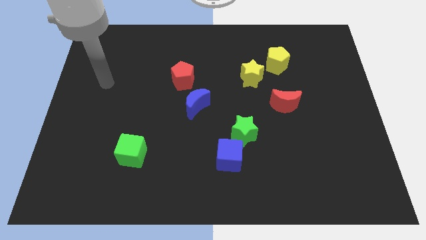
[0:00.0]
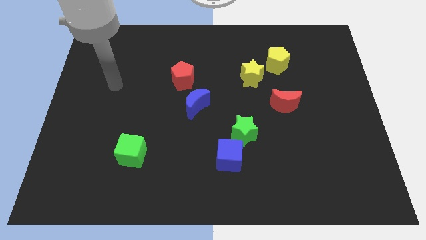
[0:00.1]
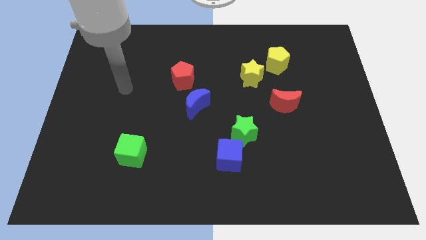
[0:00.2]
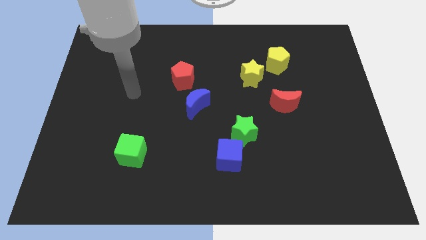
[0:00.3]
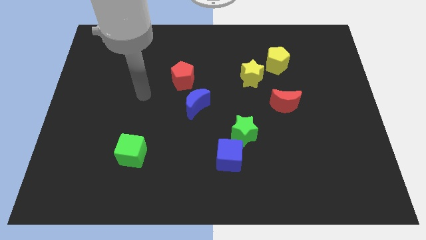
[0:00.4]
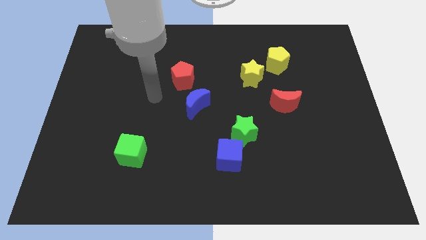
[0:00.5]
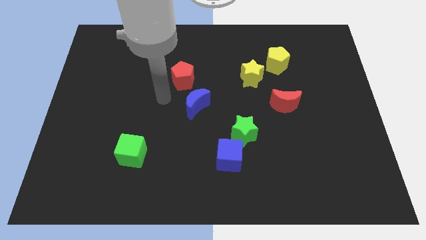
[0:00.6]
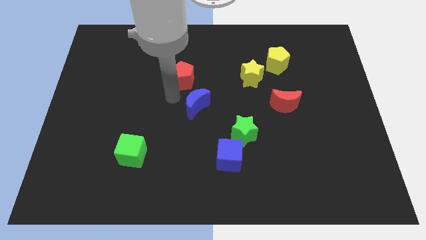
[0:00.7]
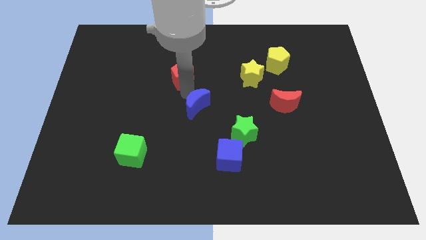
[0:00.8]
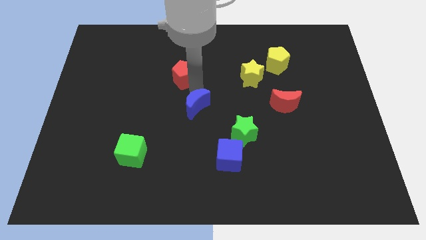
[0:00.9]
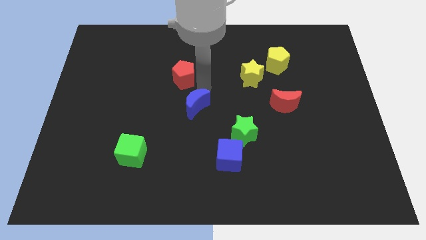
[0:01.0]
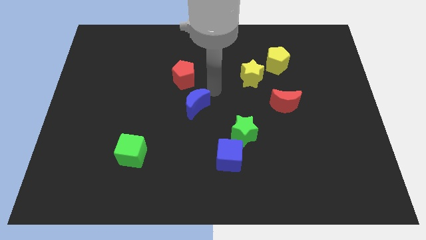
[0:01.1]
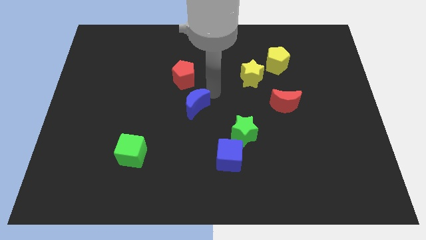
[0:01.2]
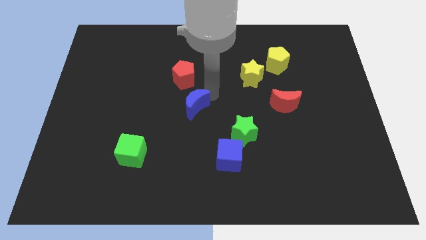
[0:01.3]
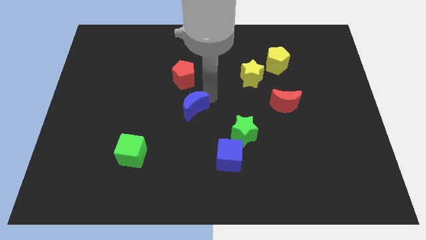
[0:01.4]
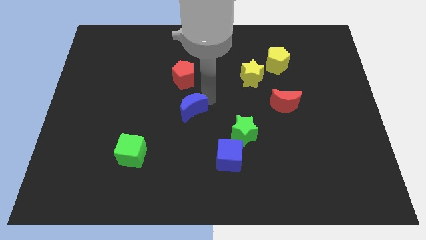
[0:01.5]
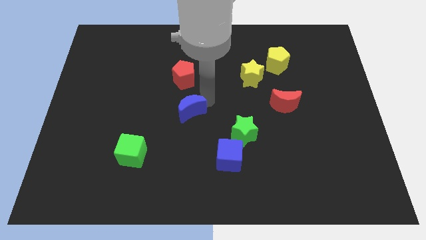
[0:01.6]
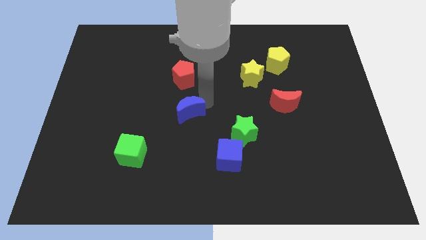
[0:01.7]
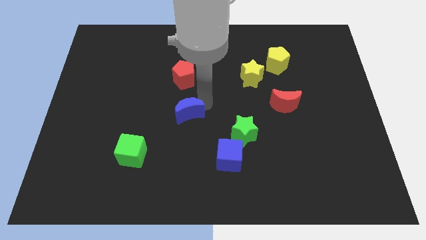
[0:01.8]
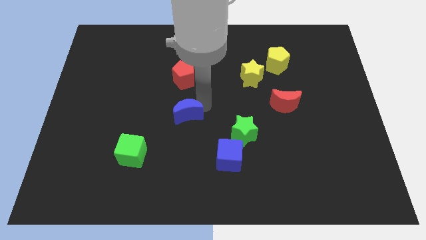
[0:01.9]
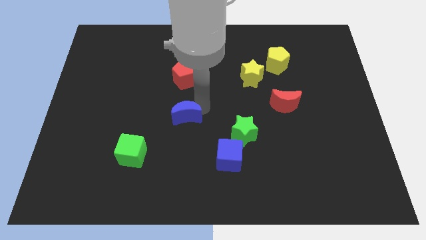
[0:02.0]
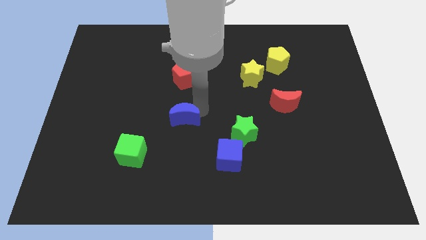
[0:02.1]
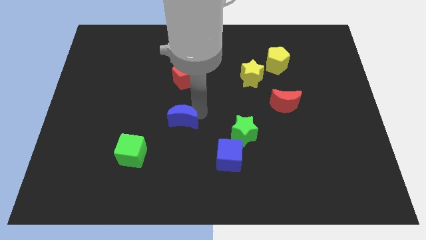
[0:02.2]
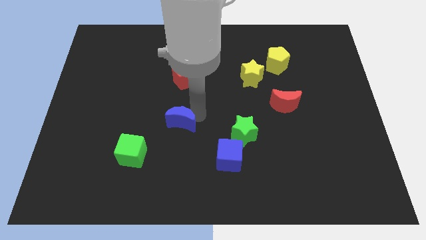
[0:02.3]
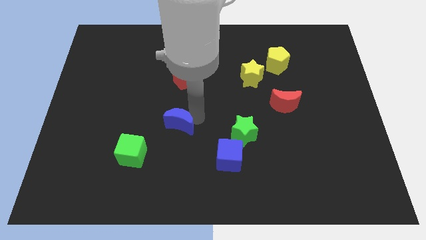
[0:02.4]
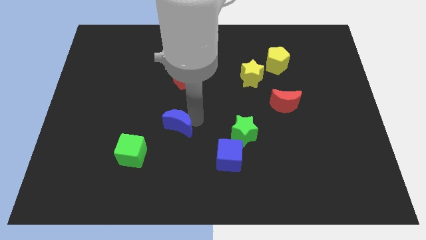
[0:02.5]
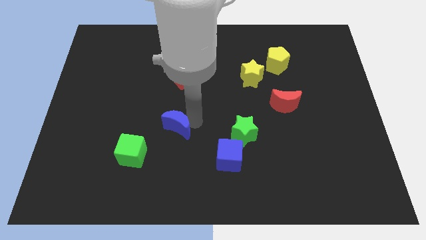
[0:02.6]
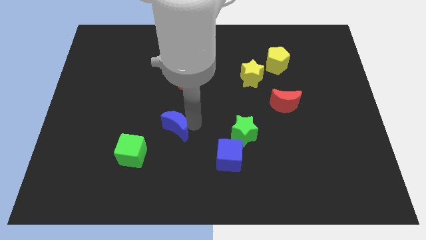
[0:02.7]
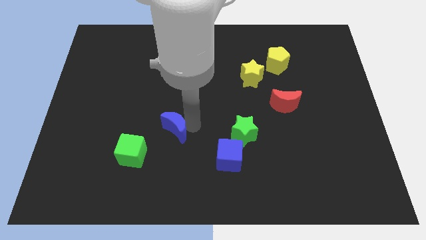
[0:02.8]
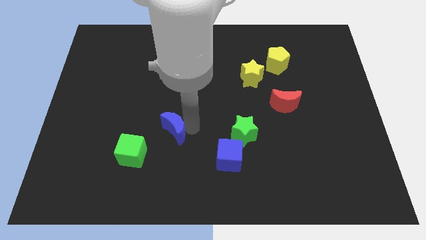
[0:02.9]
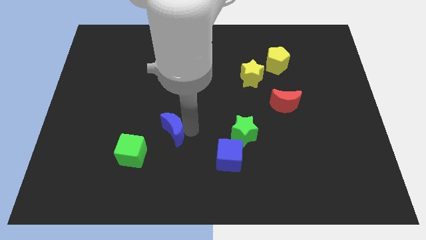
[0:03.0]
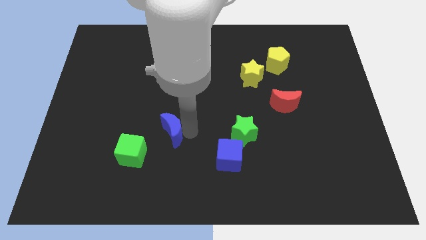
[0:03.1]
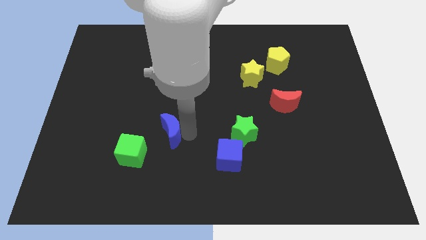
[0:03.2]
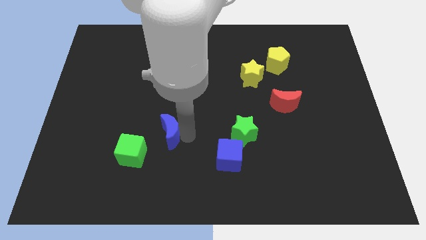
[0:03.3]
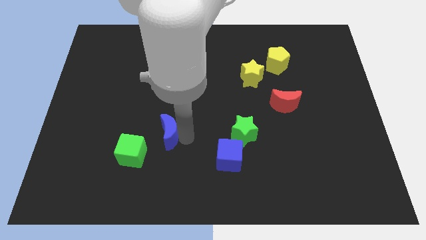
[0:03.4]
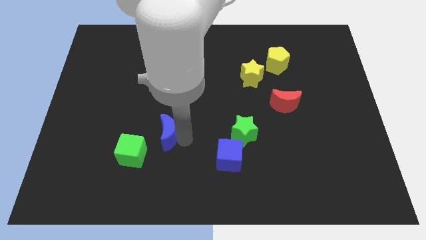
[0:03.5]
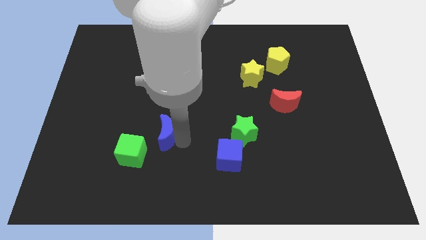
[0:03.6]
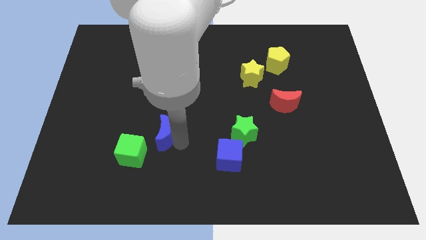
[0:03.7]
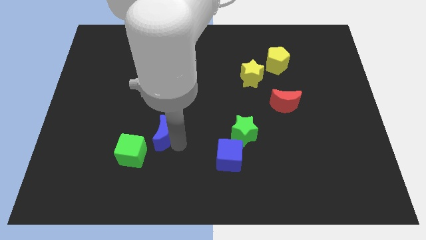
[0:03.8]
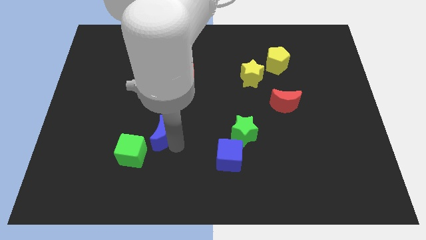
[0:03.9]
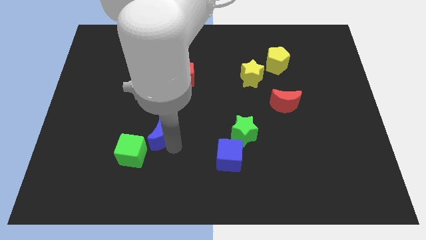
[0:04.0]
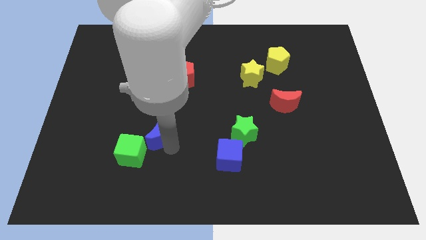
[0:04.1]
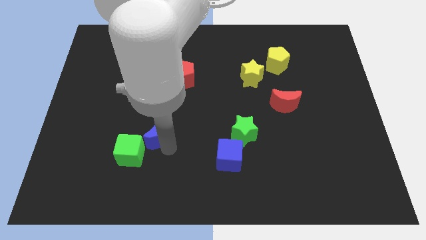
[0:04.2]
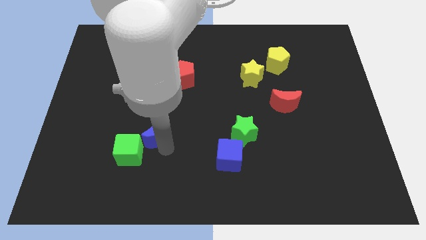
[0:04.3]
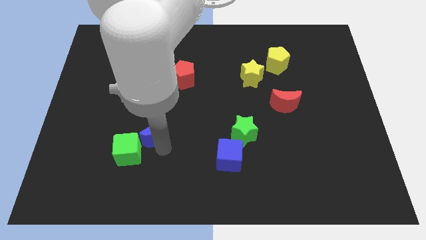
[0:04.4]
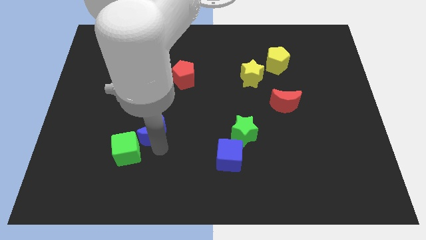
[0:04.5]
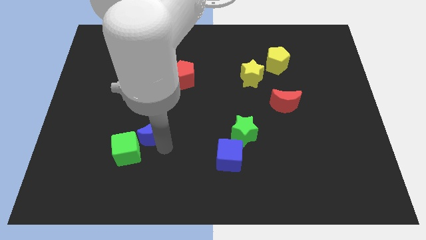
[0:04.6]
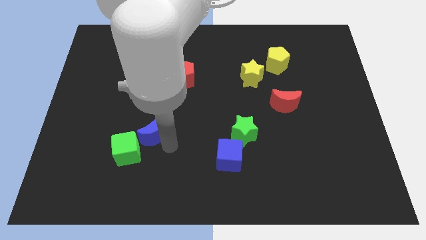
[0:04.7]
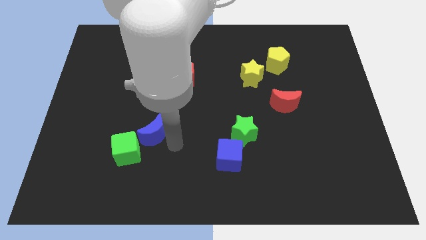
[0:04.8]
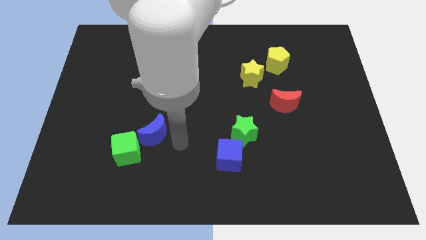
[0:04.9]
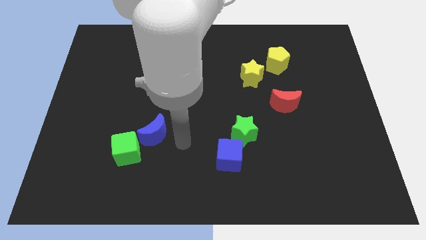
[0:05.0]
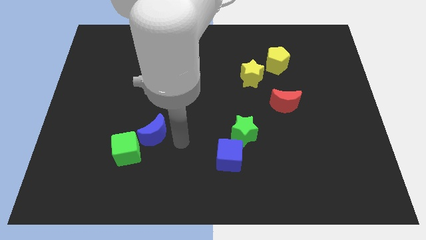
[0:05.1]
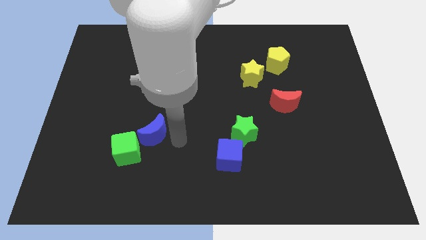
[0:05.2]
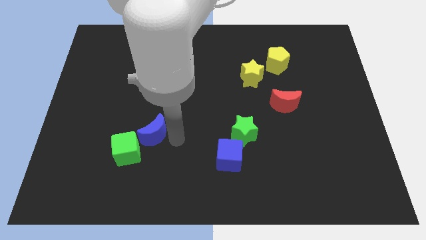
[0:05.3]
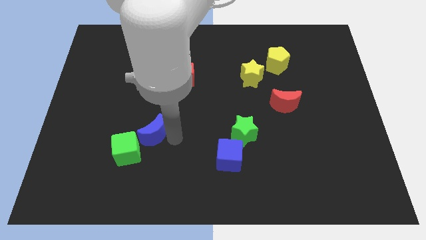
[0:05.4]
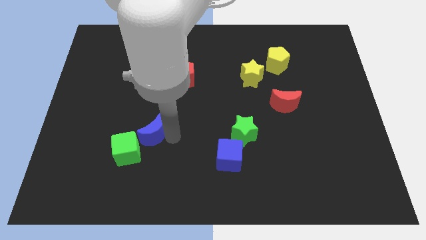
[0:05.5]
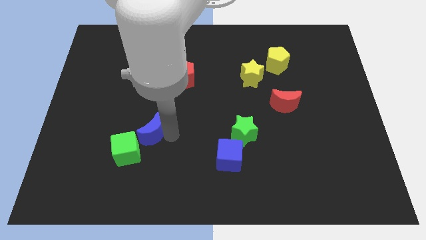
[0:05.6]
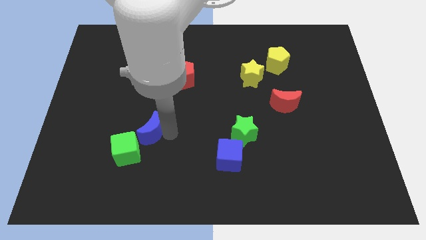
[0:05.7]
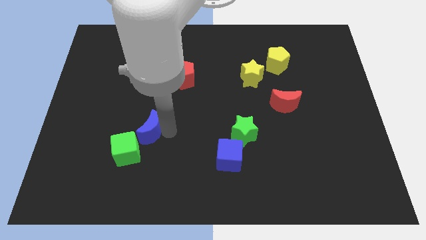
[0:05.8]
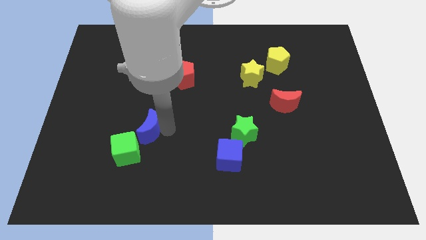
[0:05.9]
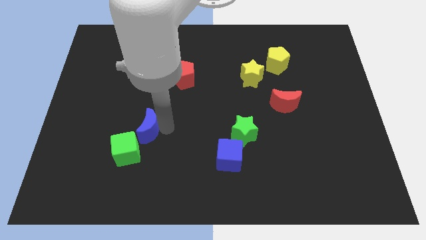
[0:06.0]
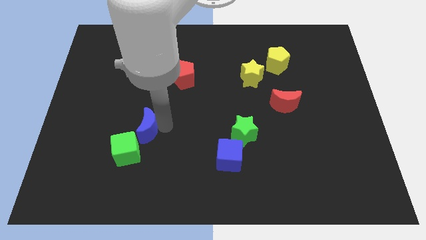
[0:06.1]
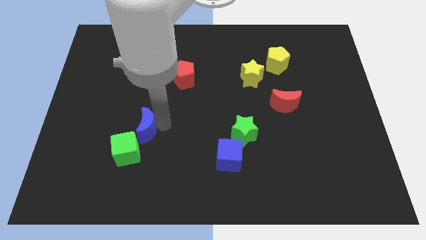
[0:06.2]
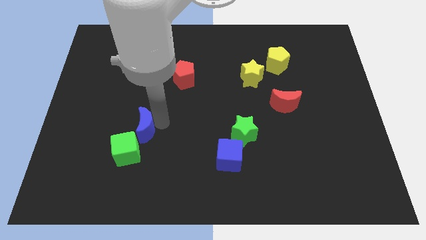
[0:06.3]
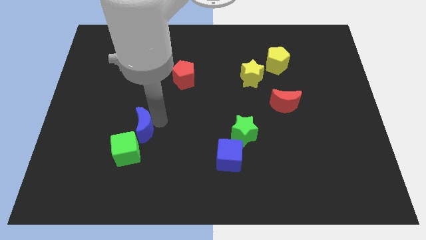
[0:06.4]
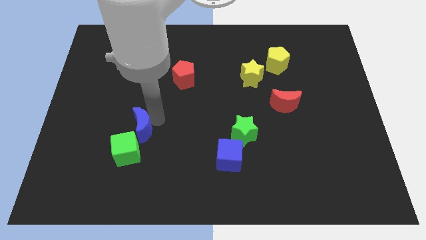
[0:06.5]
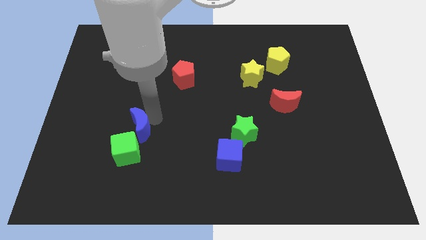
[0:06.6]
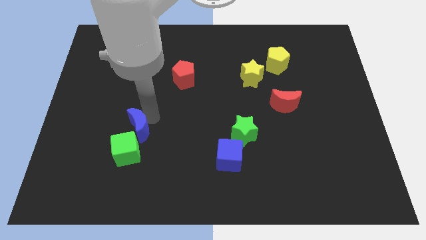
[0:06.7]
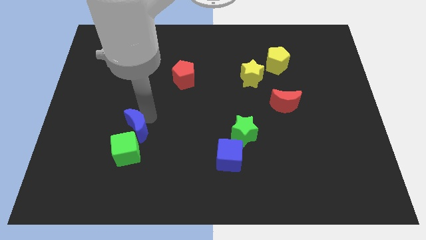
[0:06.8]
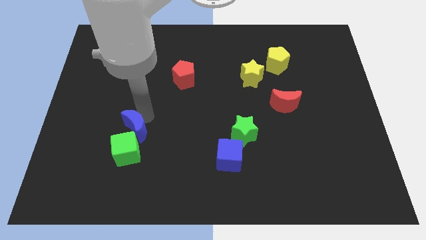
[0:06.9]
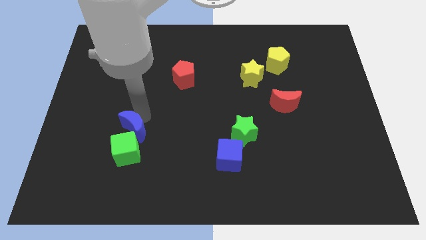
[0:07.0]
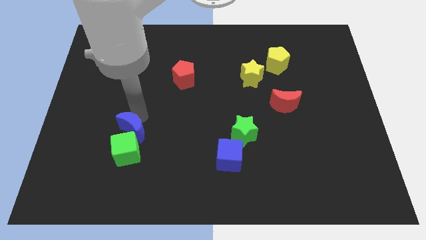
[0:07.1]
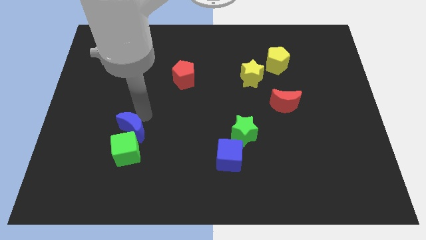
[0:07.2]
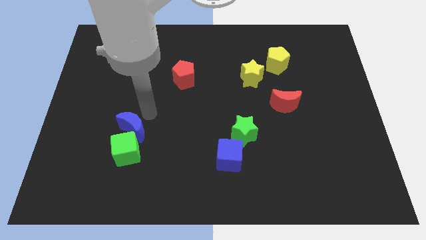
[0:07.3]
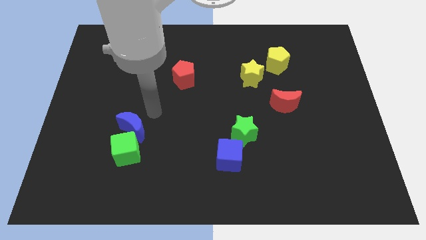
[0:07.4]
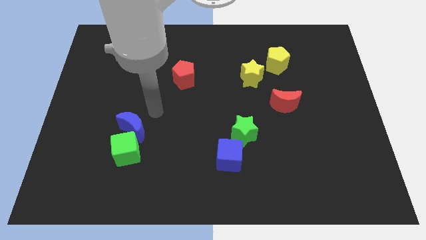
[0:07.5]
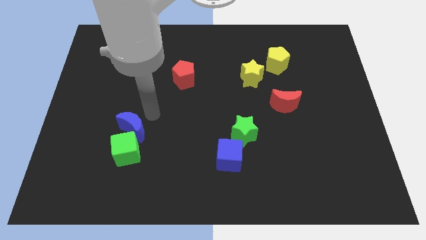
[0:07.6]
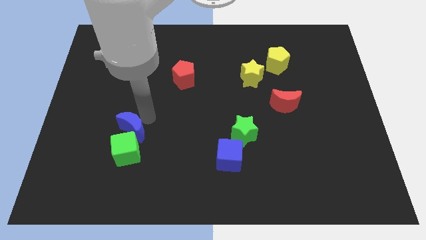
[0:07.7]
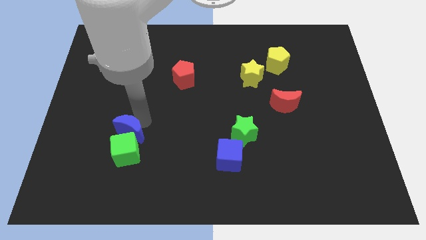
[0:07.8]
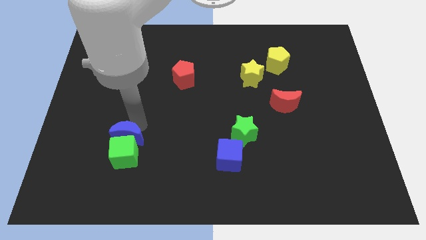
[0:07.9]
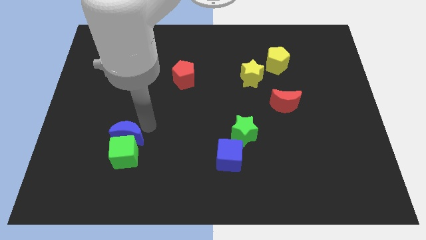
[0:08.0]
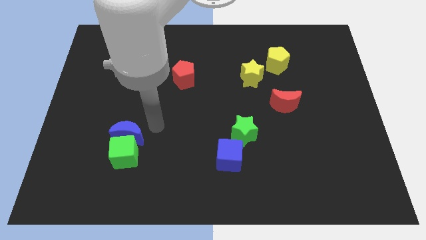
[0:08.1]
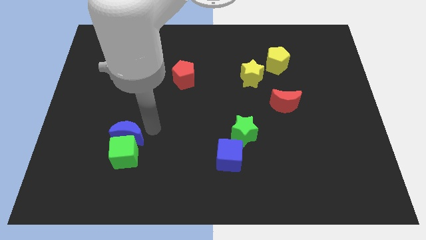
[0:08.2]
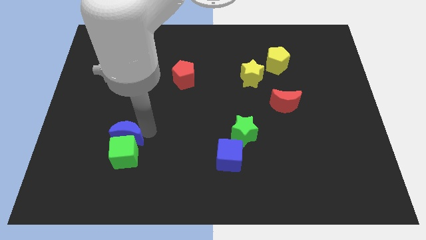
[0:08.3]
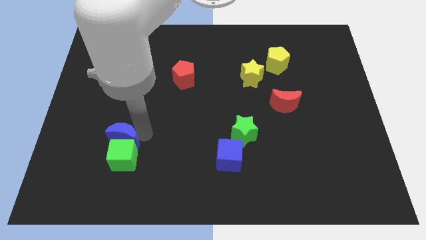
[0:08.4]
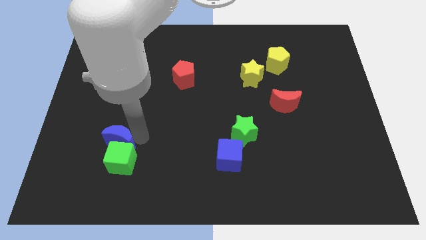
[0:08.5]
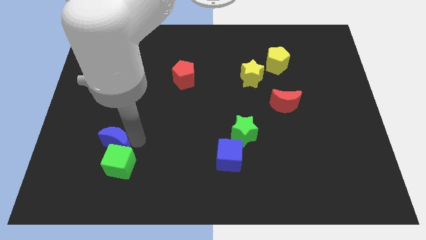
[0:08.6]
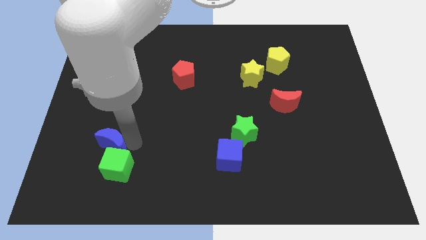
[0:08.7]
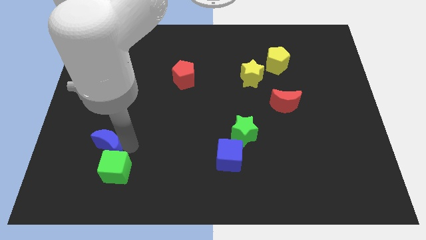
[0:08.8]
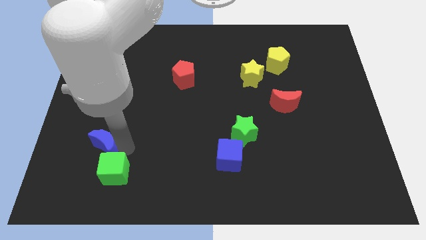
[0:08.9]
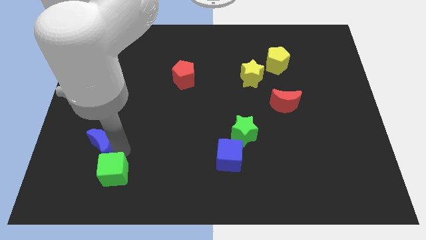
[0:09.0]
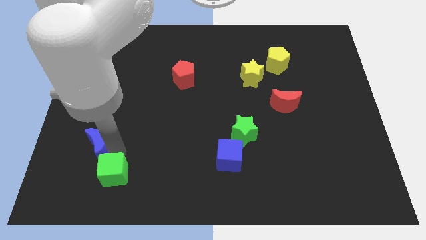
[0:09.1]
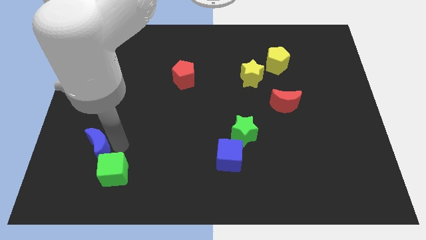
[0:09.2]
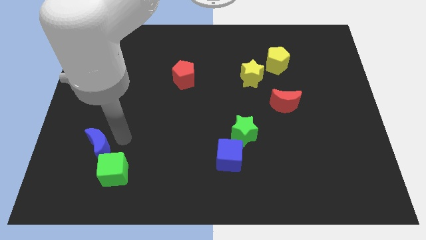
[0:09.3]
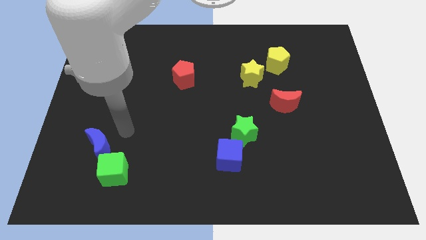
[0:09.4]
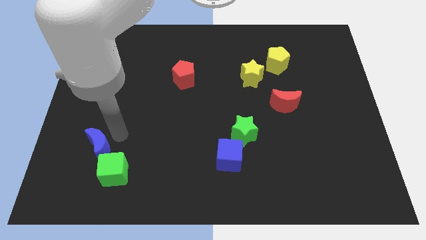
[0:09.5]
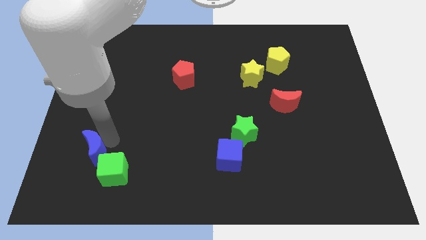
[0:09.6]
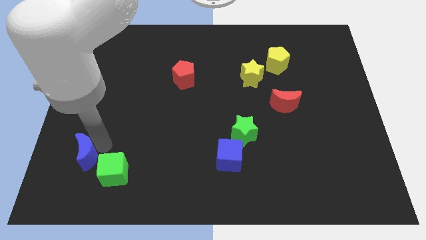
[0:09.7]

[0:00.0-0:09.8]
put the blue moon left of the green cube
